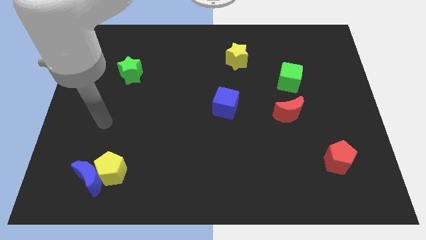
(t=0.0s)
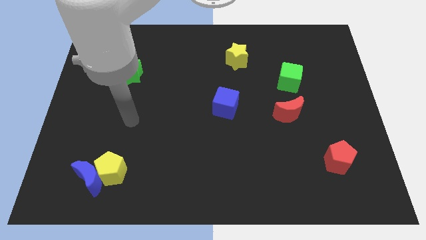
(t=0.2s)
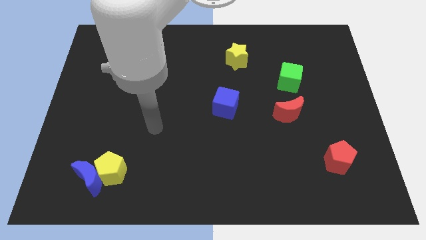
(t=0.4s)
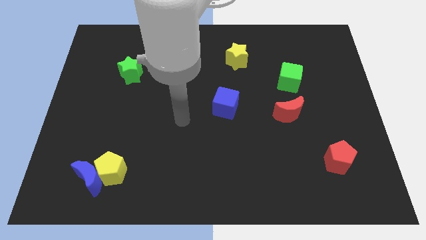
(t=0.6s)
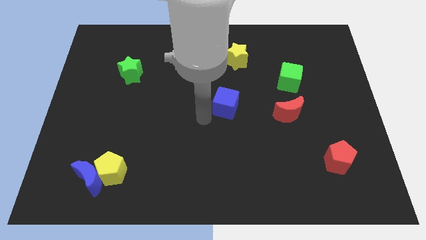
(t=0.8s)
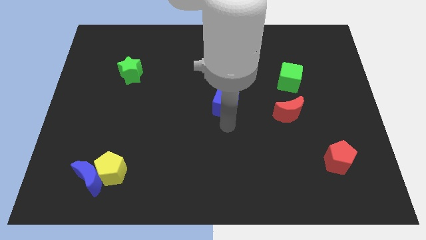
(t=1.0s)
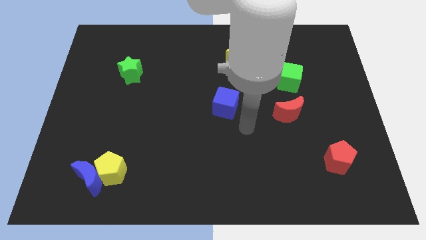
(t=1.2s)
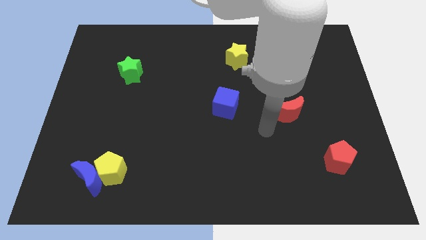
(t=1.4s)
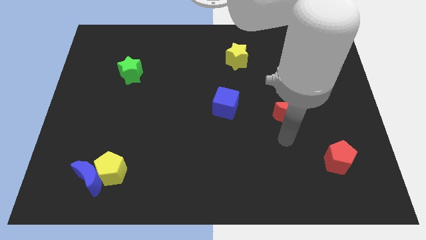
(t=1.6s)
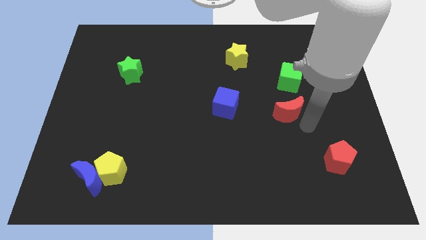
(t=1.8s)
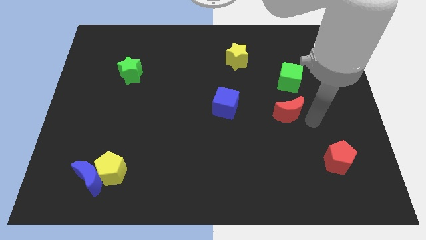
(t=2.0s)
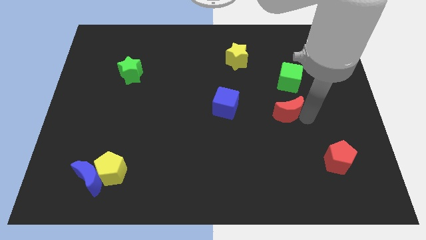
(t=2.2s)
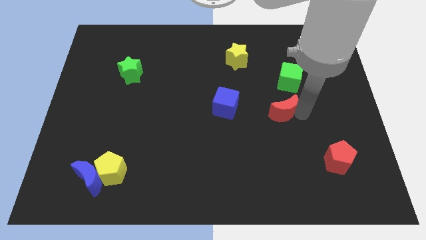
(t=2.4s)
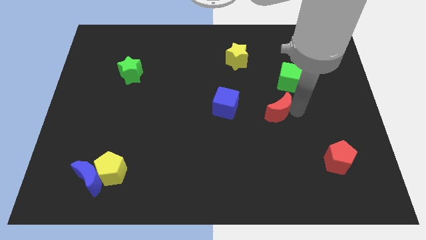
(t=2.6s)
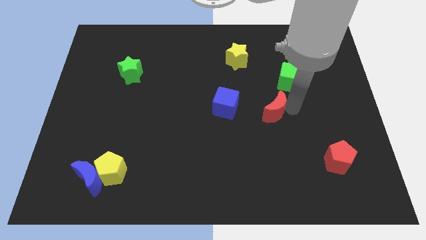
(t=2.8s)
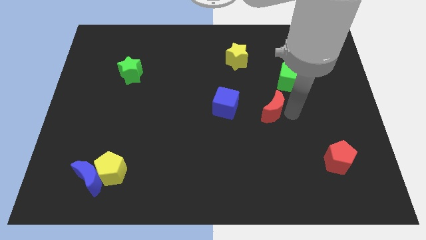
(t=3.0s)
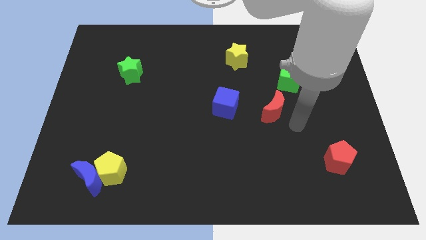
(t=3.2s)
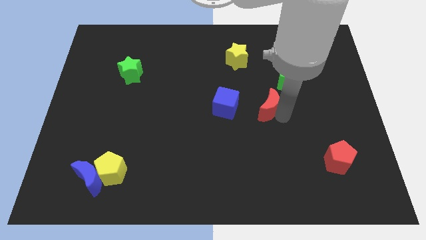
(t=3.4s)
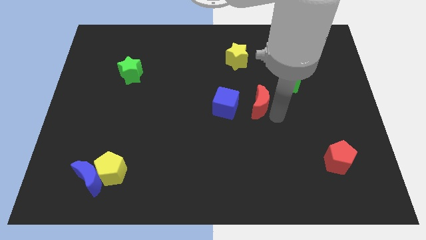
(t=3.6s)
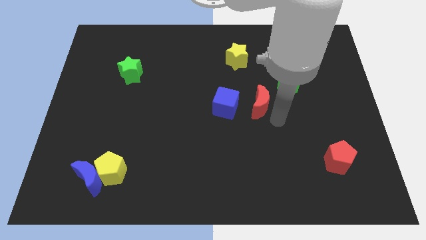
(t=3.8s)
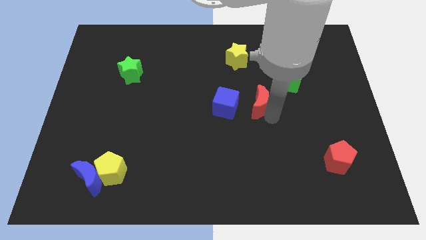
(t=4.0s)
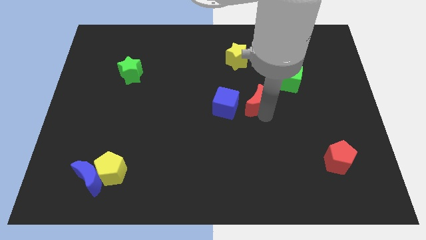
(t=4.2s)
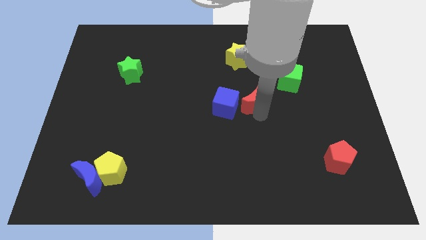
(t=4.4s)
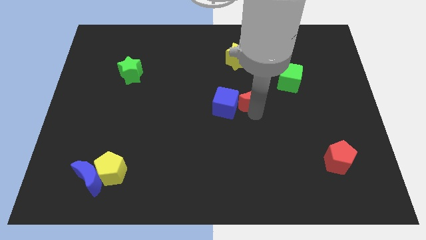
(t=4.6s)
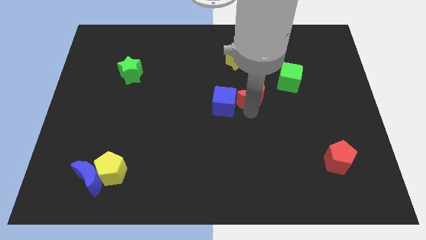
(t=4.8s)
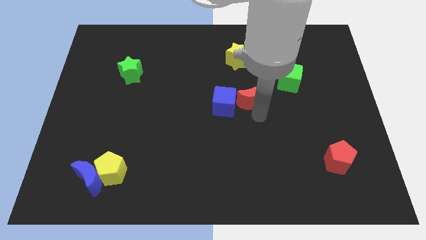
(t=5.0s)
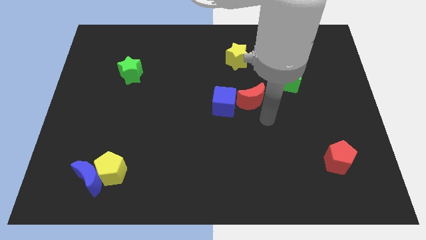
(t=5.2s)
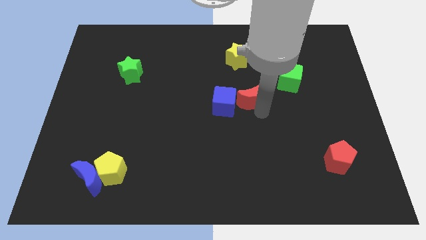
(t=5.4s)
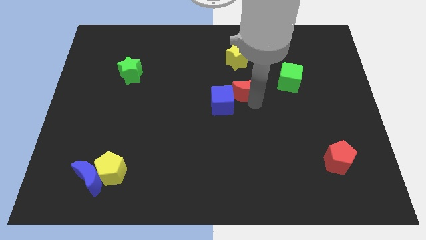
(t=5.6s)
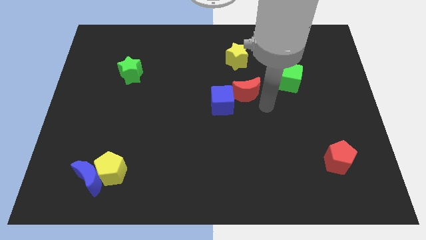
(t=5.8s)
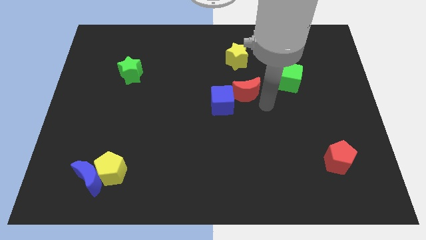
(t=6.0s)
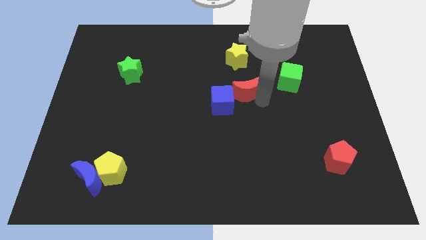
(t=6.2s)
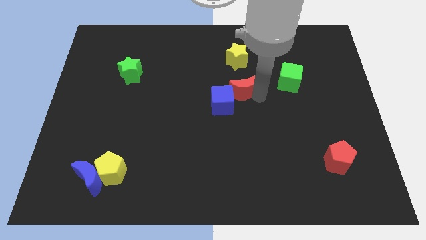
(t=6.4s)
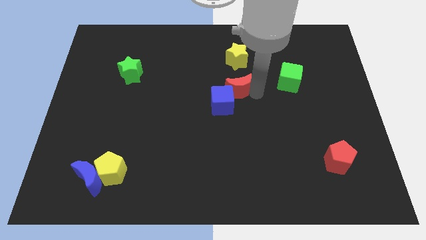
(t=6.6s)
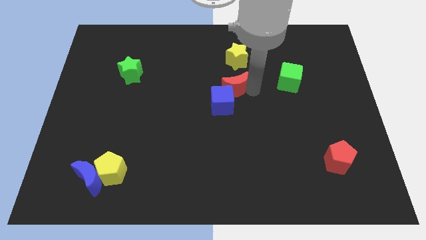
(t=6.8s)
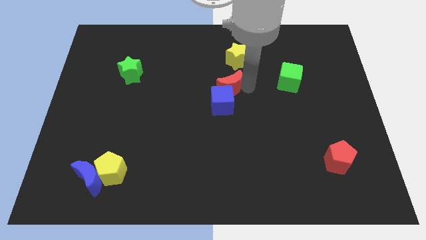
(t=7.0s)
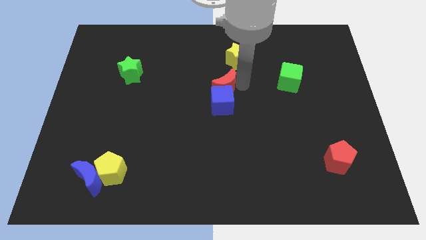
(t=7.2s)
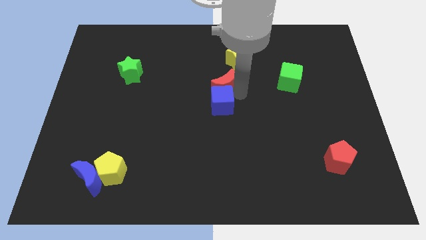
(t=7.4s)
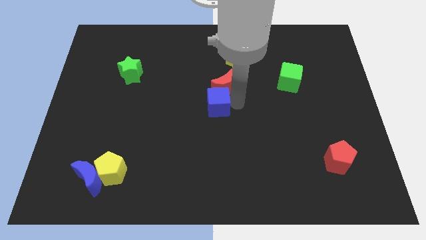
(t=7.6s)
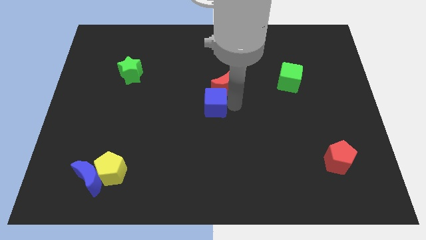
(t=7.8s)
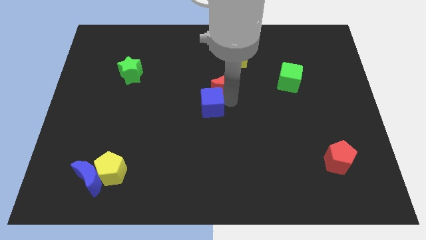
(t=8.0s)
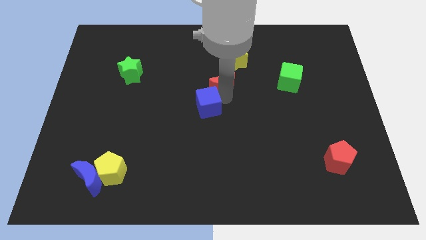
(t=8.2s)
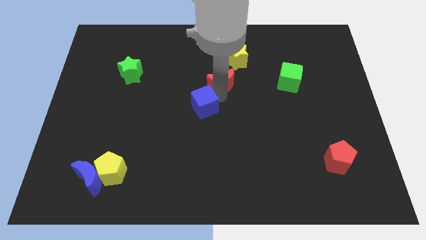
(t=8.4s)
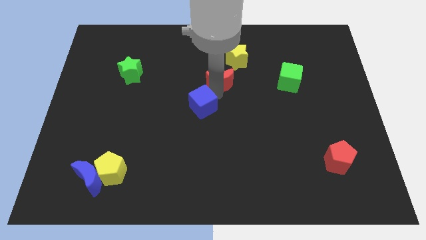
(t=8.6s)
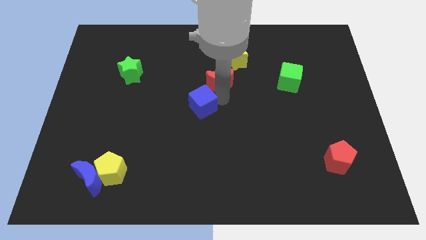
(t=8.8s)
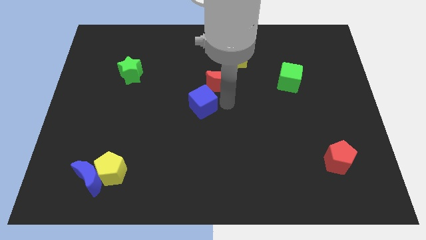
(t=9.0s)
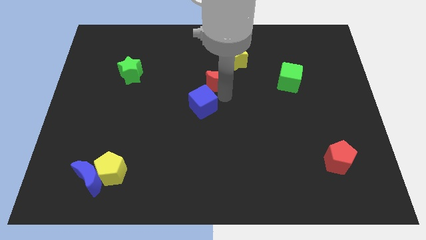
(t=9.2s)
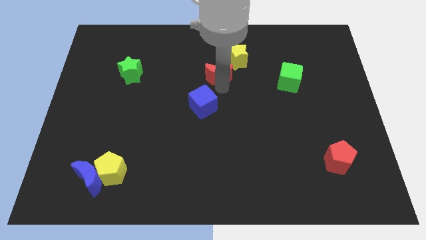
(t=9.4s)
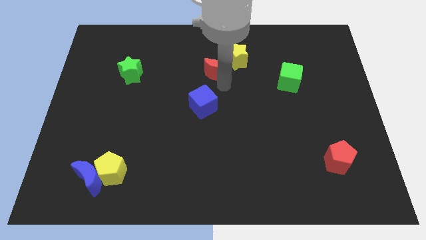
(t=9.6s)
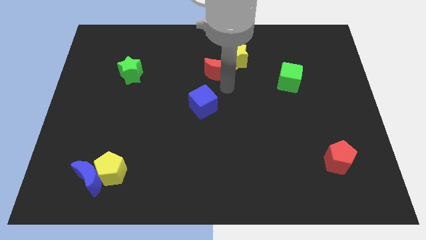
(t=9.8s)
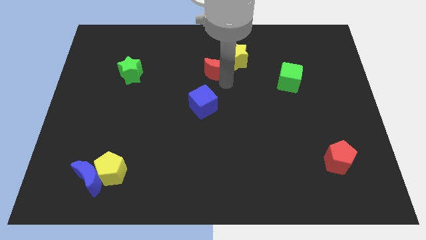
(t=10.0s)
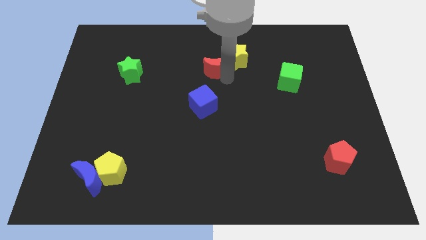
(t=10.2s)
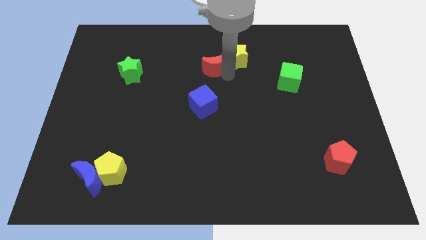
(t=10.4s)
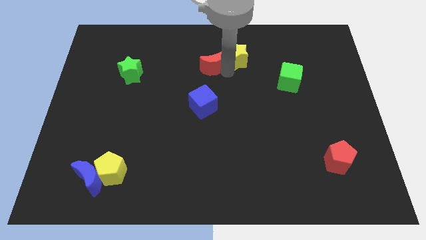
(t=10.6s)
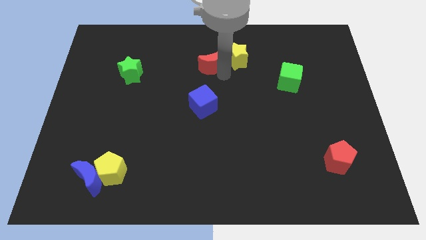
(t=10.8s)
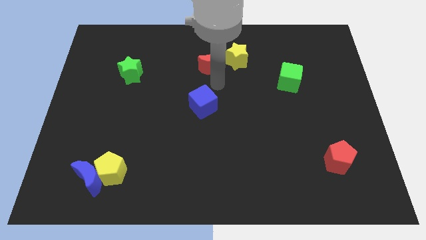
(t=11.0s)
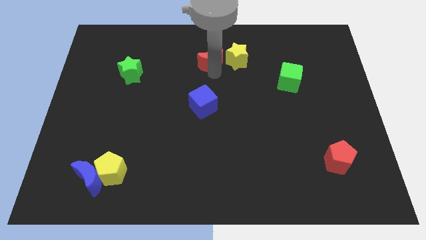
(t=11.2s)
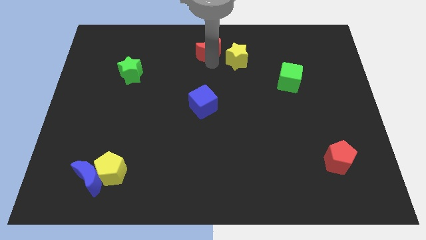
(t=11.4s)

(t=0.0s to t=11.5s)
put the red moon to the top side

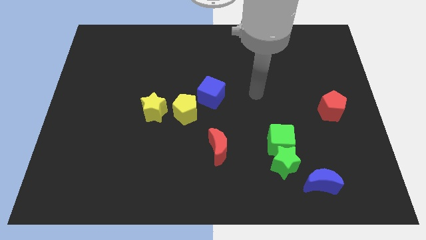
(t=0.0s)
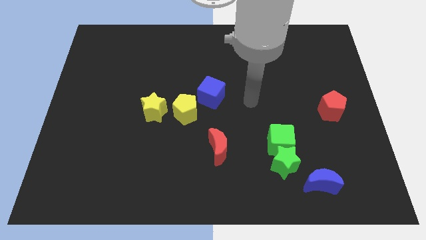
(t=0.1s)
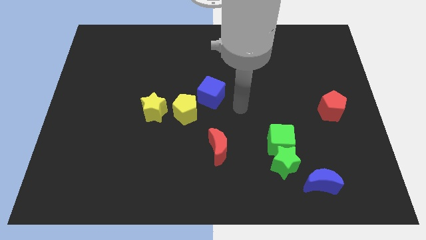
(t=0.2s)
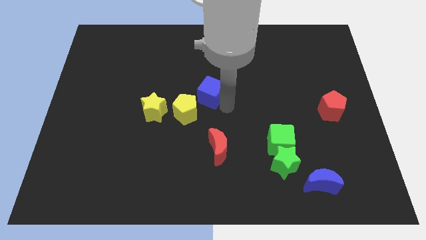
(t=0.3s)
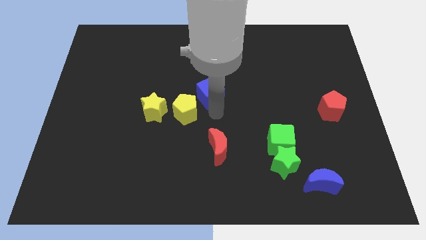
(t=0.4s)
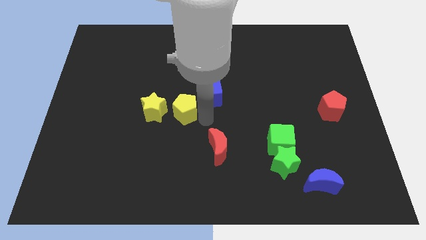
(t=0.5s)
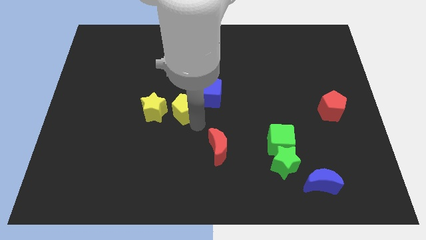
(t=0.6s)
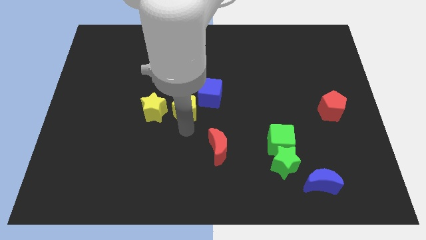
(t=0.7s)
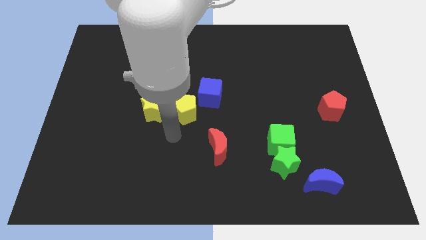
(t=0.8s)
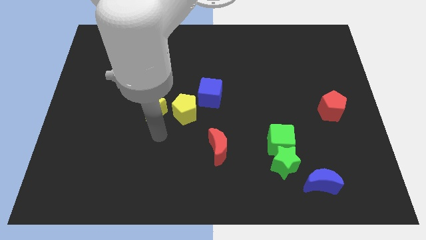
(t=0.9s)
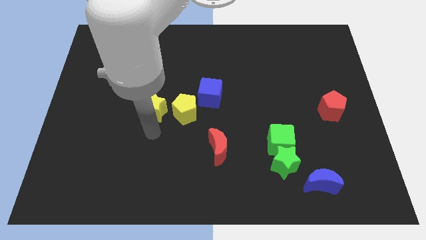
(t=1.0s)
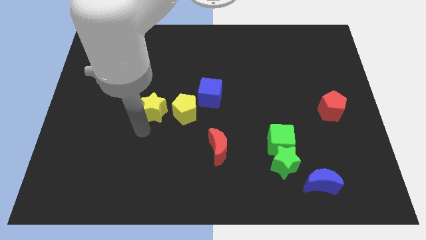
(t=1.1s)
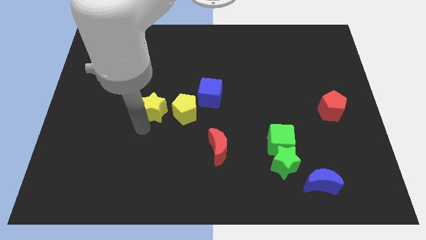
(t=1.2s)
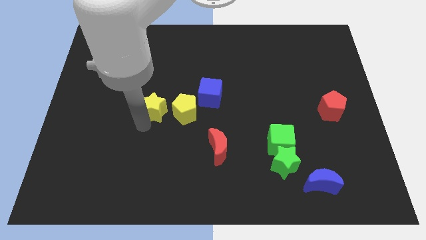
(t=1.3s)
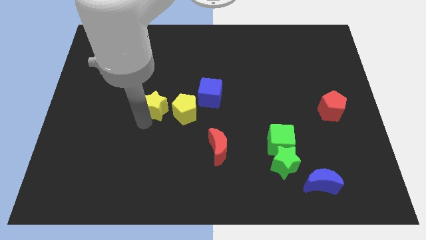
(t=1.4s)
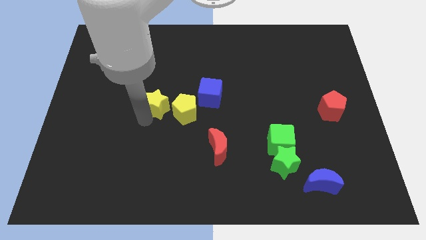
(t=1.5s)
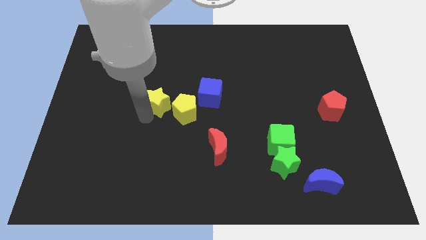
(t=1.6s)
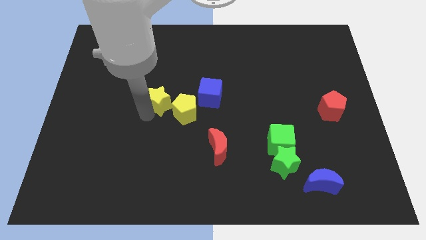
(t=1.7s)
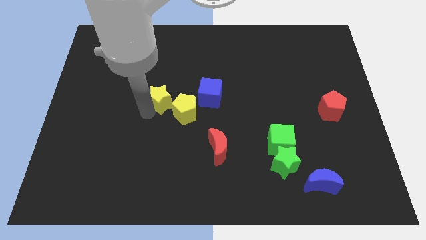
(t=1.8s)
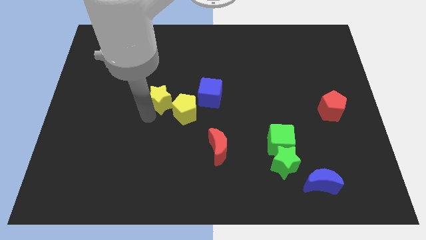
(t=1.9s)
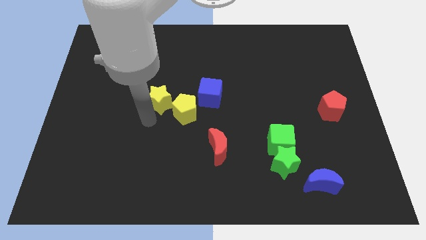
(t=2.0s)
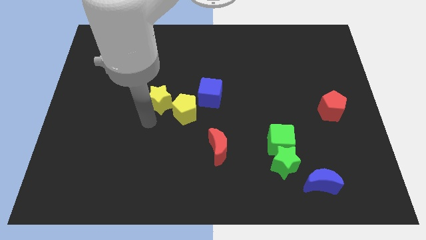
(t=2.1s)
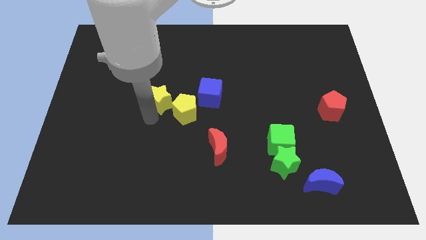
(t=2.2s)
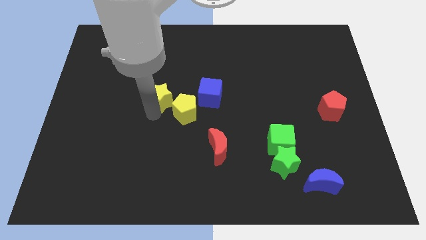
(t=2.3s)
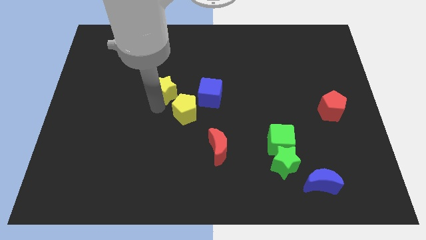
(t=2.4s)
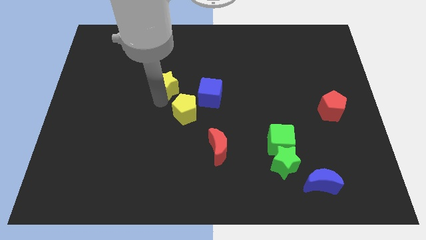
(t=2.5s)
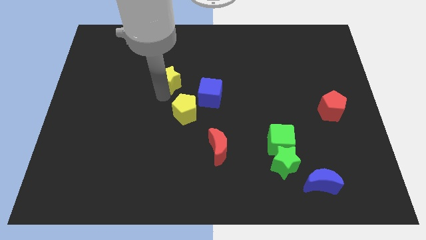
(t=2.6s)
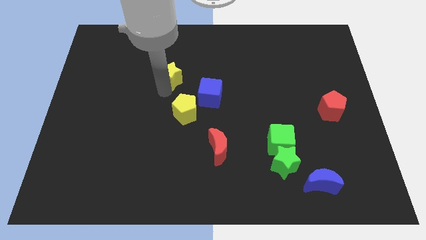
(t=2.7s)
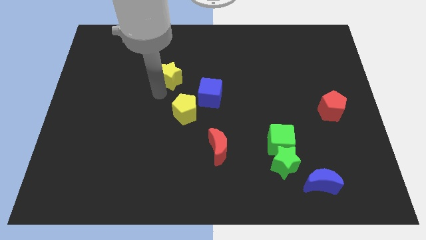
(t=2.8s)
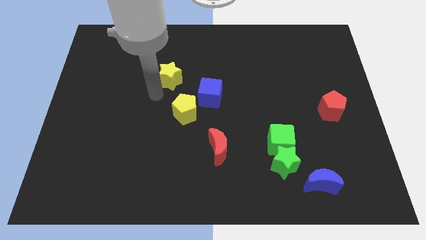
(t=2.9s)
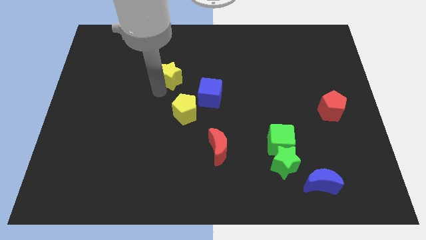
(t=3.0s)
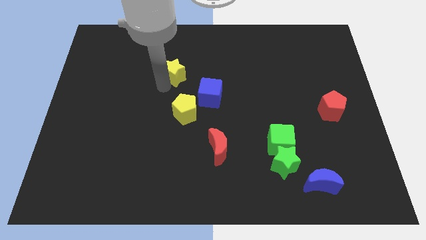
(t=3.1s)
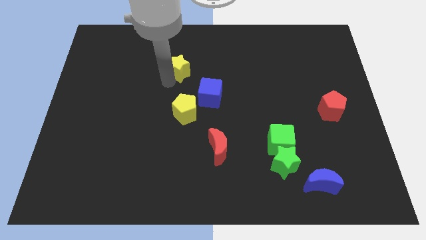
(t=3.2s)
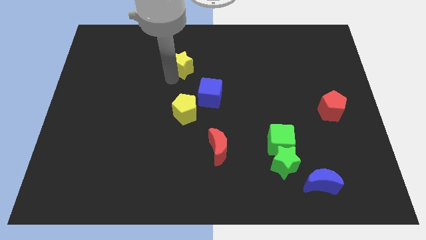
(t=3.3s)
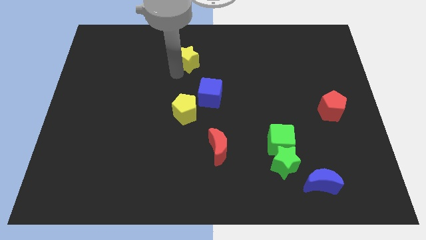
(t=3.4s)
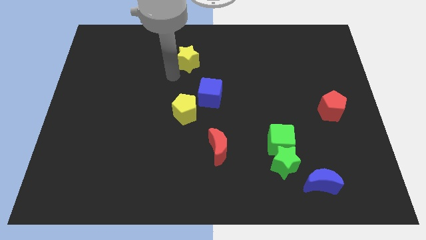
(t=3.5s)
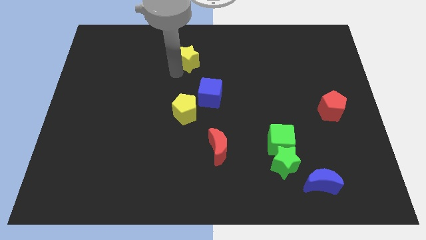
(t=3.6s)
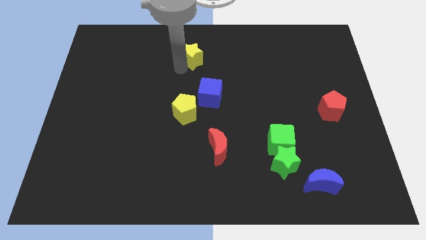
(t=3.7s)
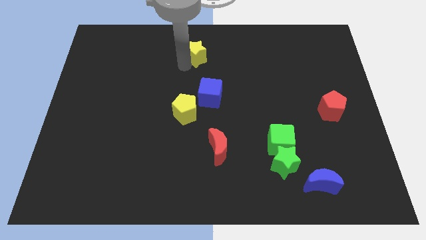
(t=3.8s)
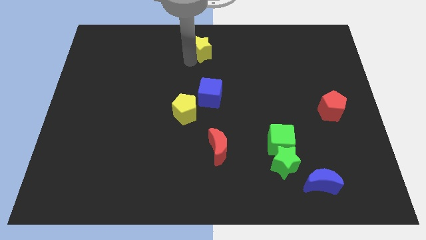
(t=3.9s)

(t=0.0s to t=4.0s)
put the yellow star to the towards your base
